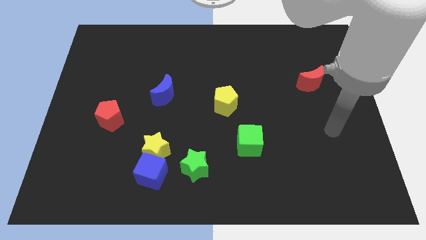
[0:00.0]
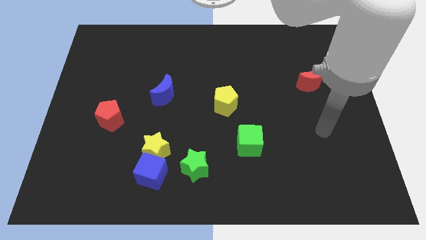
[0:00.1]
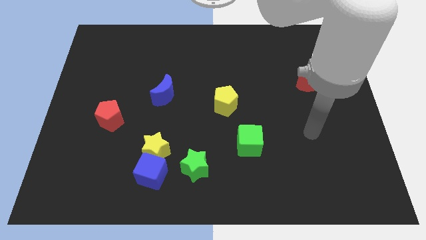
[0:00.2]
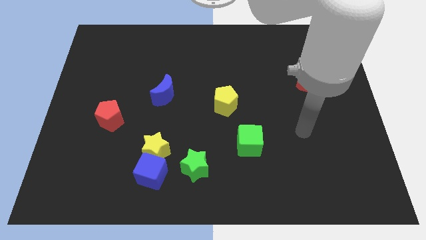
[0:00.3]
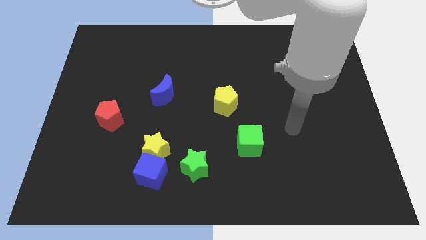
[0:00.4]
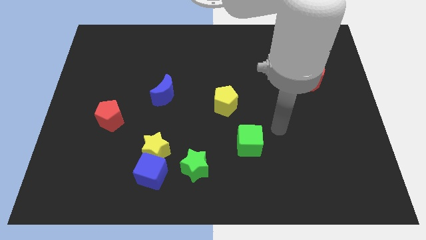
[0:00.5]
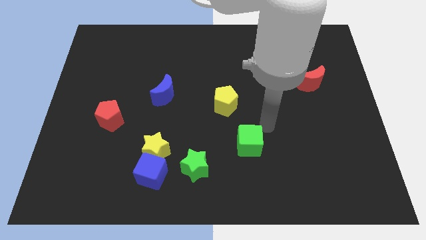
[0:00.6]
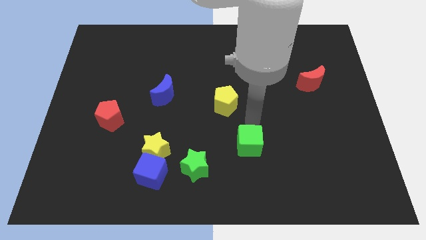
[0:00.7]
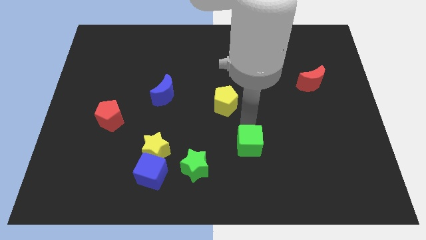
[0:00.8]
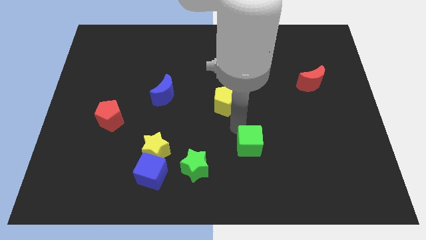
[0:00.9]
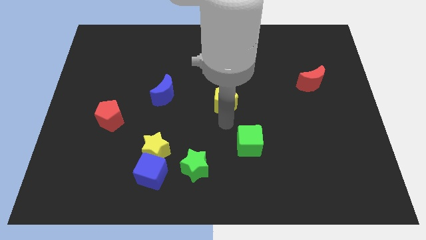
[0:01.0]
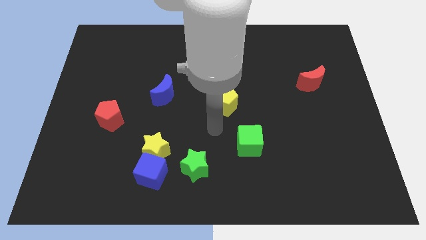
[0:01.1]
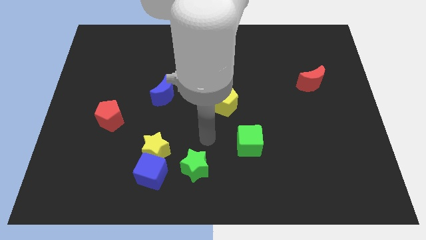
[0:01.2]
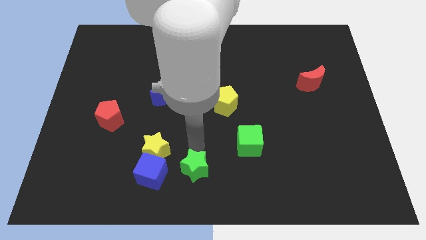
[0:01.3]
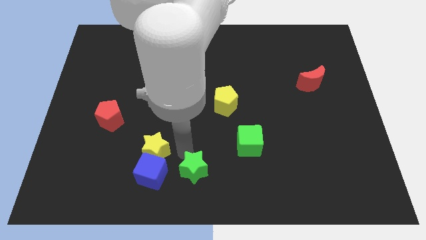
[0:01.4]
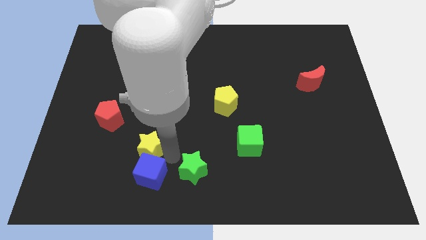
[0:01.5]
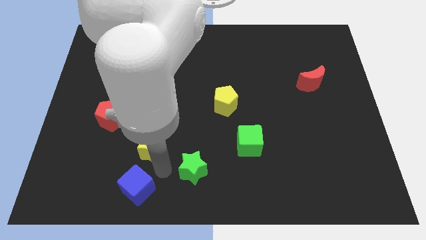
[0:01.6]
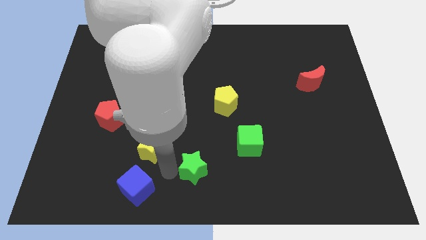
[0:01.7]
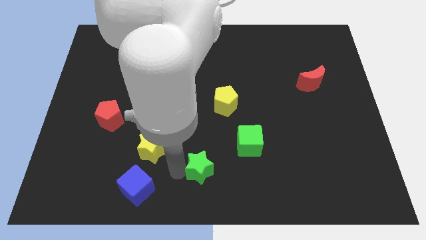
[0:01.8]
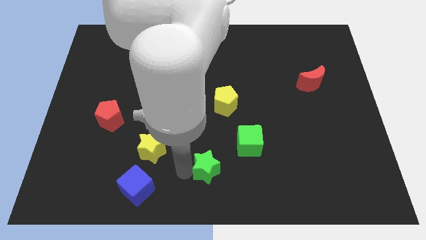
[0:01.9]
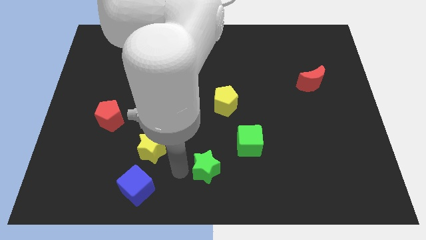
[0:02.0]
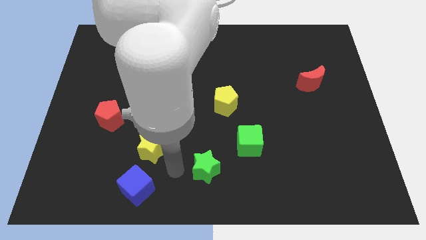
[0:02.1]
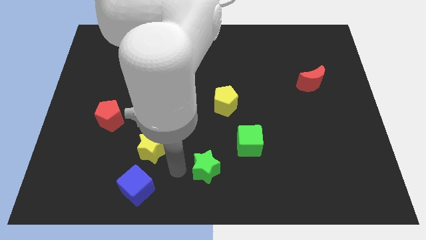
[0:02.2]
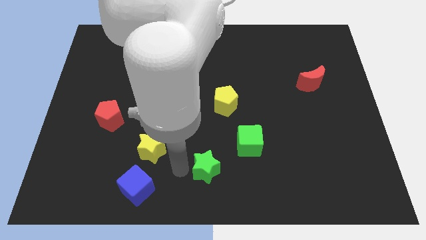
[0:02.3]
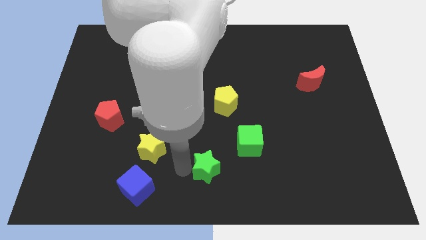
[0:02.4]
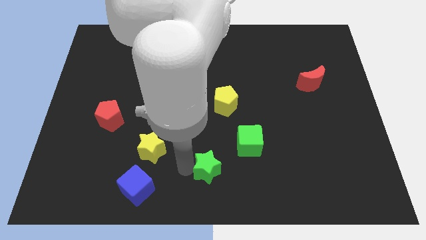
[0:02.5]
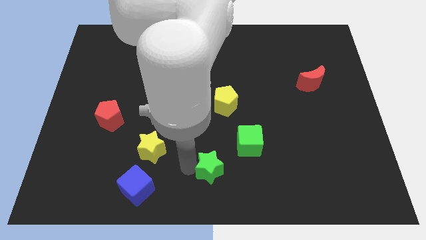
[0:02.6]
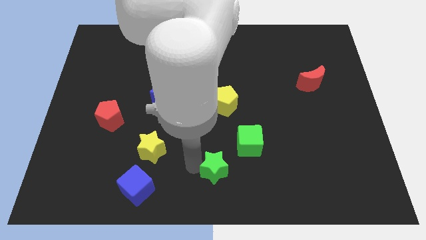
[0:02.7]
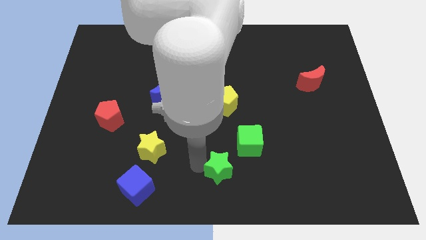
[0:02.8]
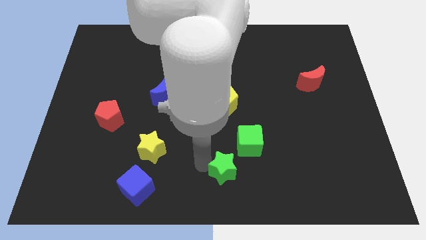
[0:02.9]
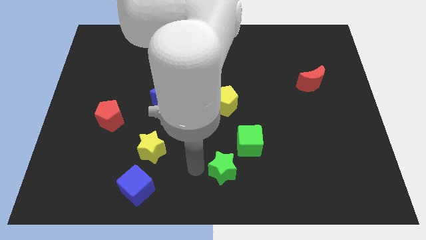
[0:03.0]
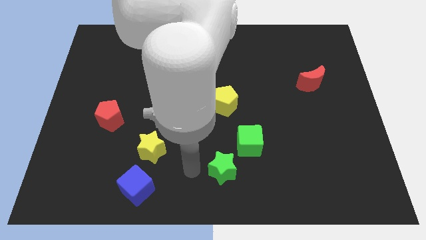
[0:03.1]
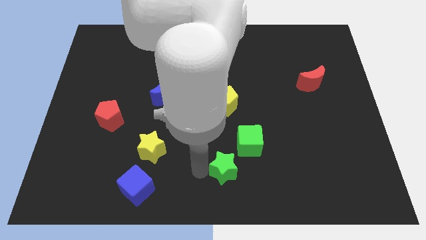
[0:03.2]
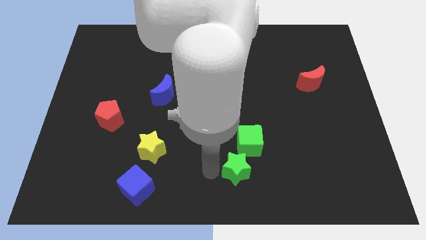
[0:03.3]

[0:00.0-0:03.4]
move the green star to the right a little

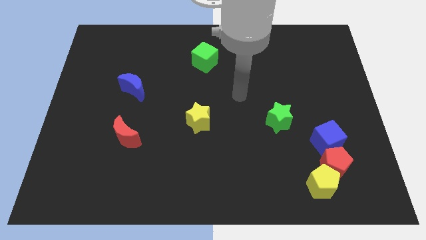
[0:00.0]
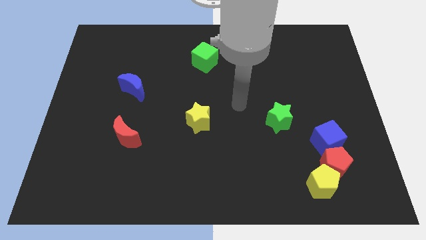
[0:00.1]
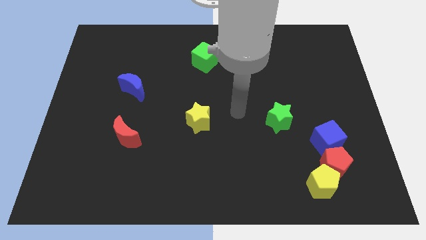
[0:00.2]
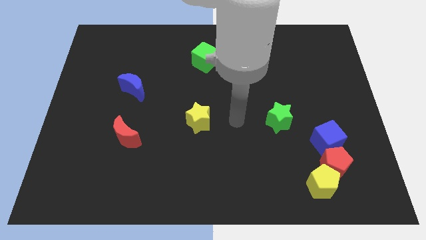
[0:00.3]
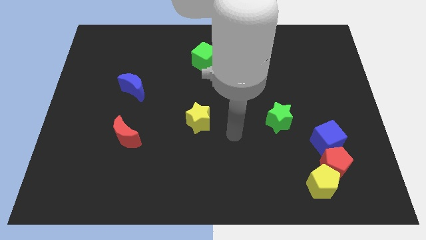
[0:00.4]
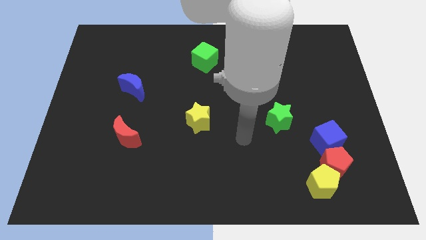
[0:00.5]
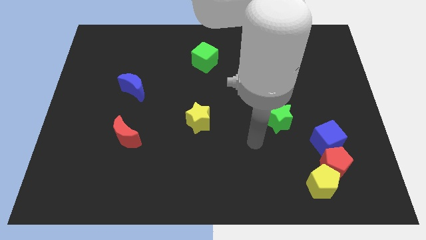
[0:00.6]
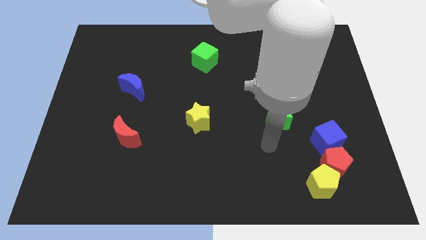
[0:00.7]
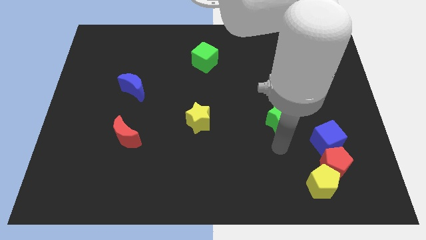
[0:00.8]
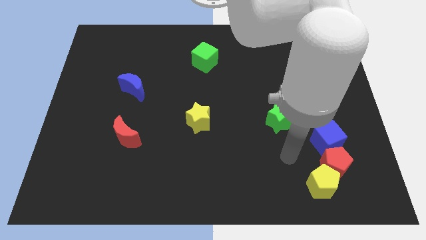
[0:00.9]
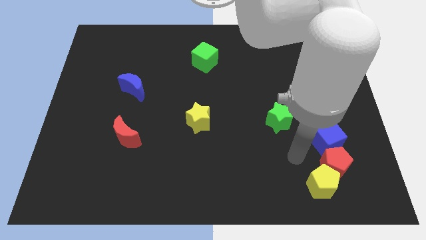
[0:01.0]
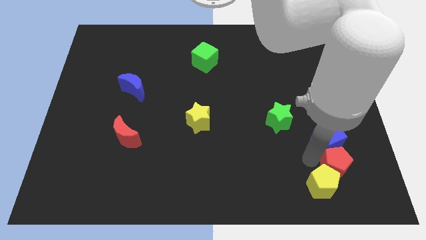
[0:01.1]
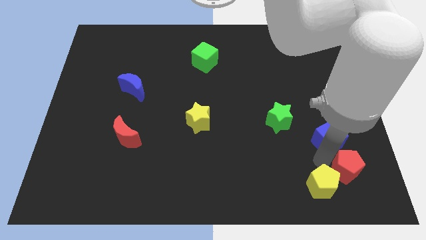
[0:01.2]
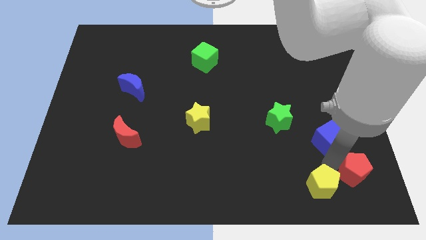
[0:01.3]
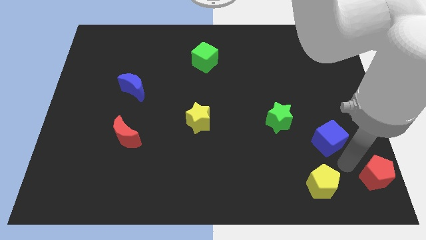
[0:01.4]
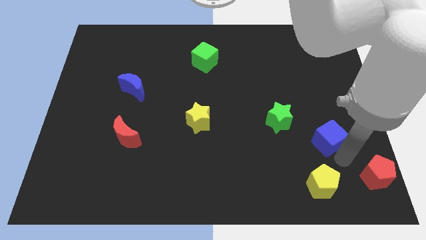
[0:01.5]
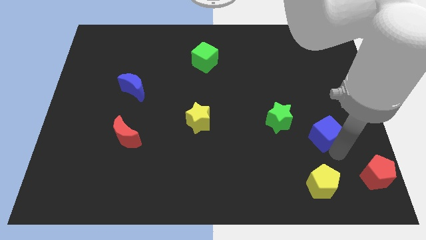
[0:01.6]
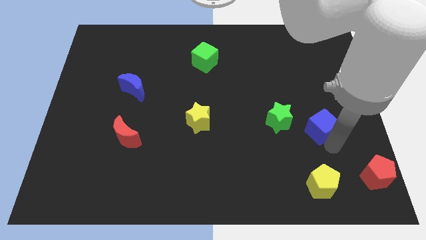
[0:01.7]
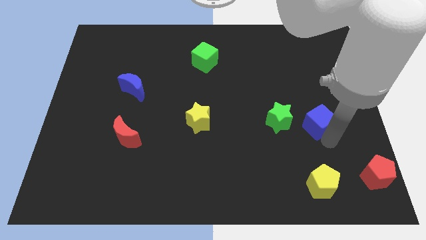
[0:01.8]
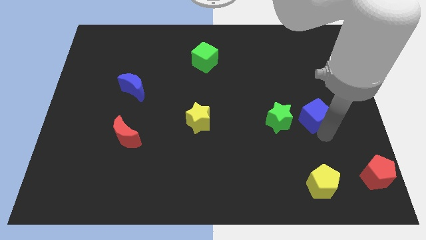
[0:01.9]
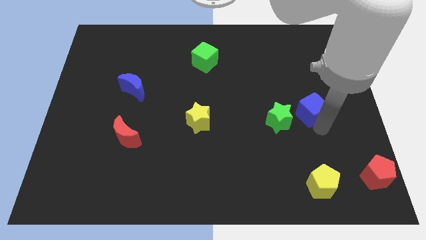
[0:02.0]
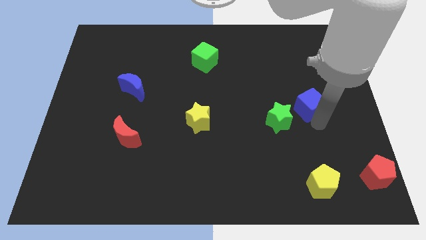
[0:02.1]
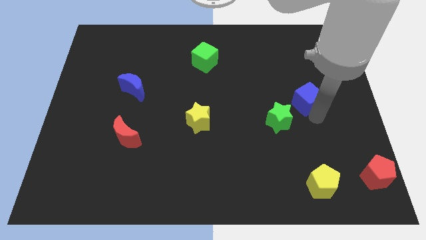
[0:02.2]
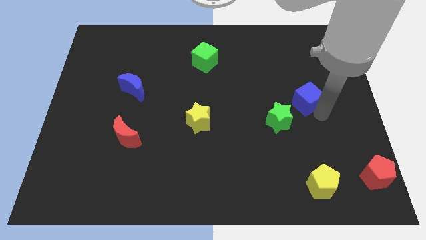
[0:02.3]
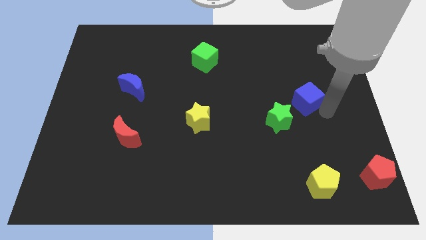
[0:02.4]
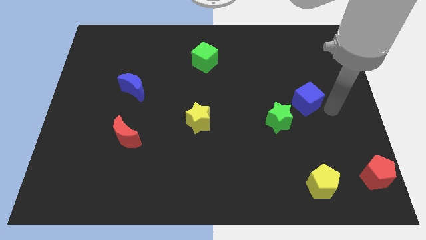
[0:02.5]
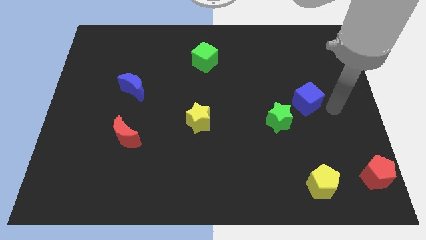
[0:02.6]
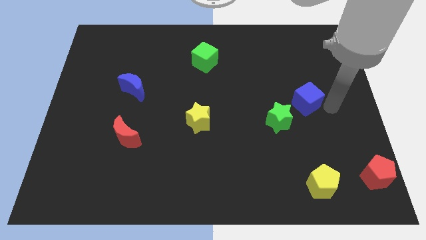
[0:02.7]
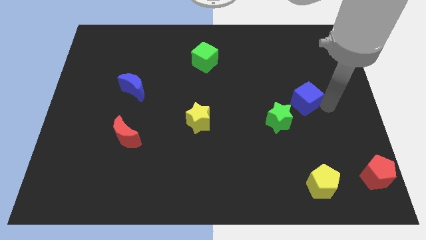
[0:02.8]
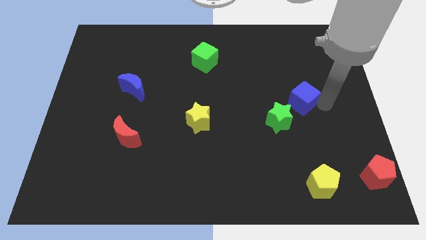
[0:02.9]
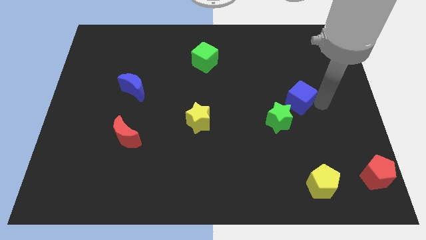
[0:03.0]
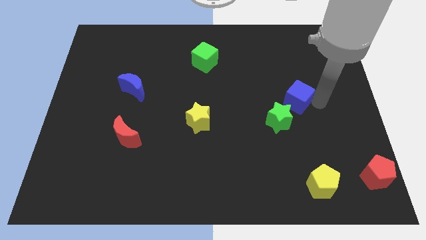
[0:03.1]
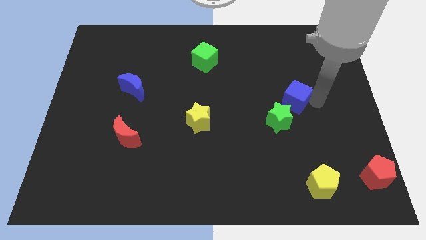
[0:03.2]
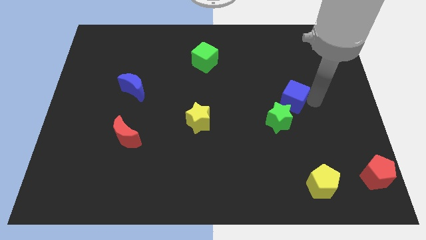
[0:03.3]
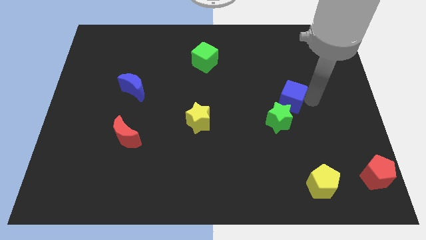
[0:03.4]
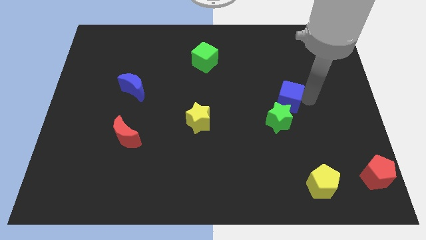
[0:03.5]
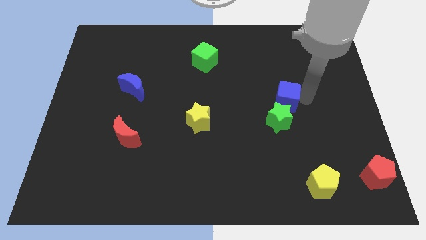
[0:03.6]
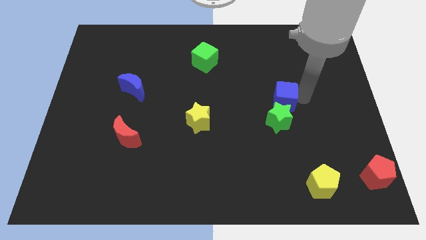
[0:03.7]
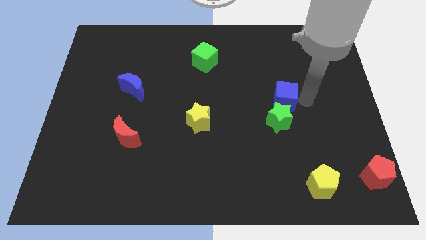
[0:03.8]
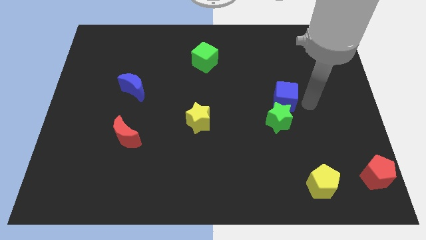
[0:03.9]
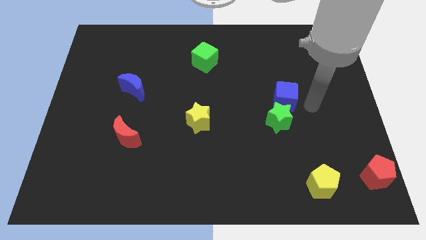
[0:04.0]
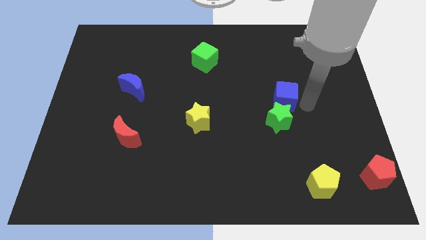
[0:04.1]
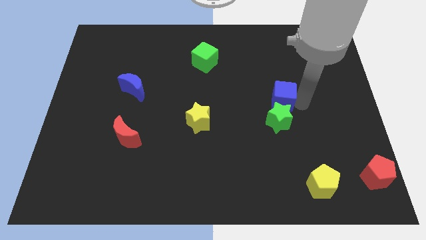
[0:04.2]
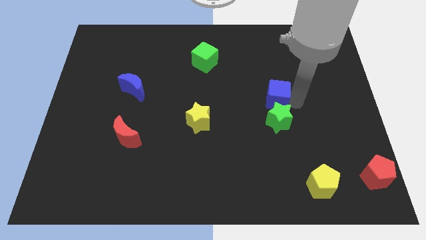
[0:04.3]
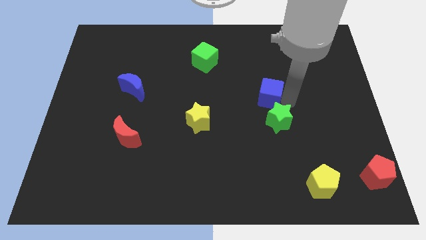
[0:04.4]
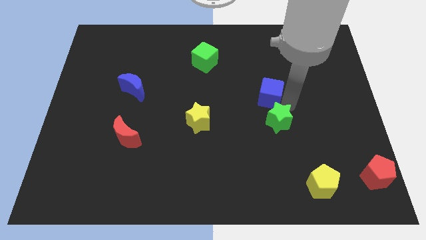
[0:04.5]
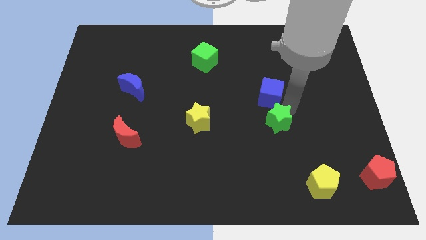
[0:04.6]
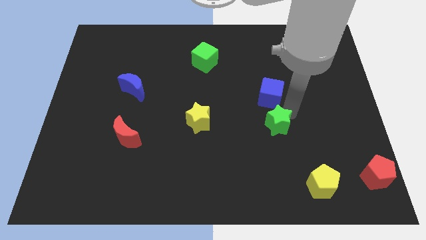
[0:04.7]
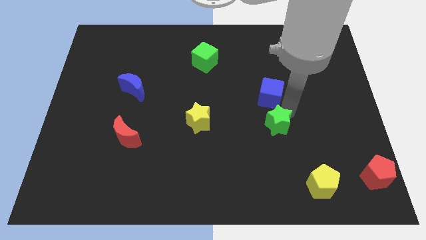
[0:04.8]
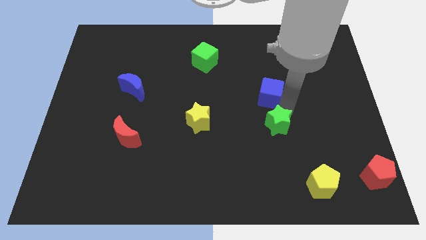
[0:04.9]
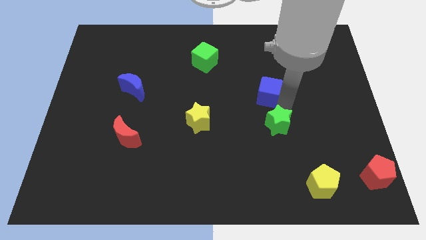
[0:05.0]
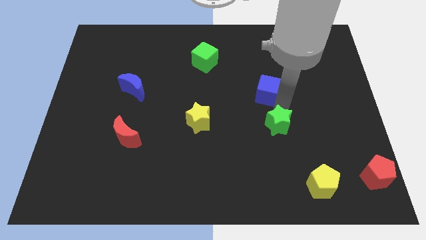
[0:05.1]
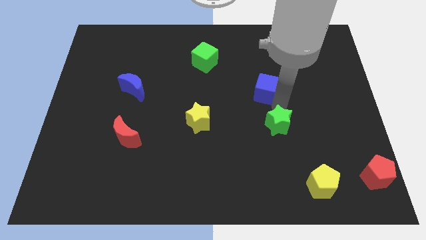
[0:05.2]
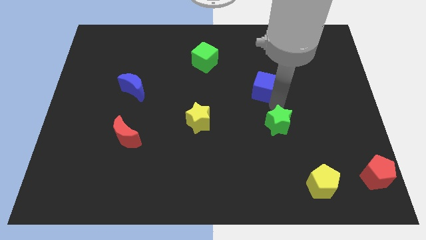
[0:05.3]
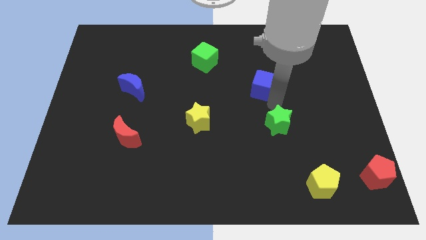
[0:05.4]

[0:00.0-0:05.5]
push the blue cube up and then to the left
